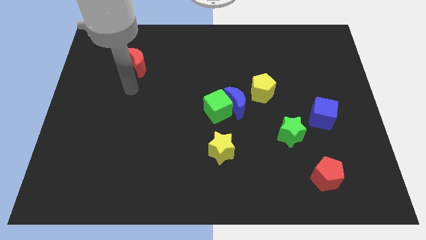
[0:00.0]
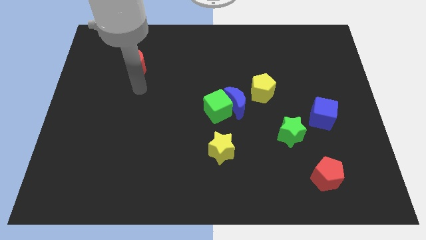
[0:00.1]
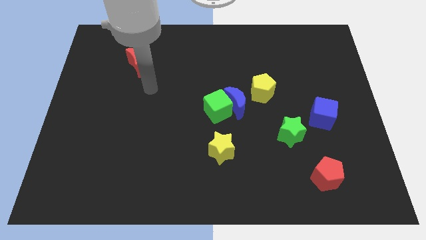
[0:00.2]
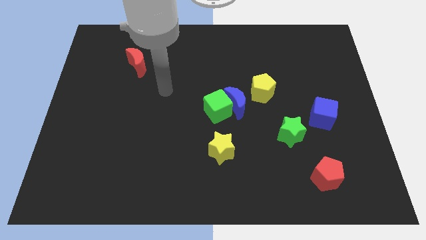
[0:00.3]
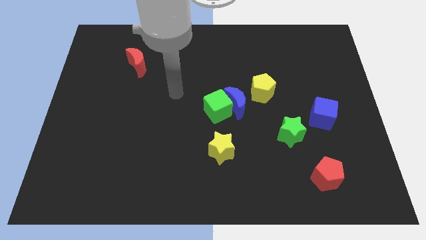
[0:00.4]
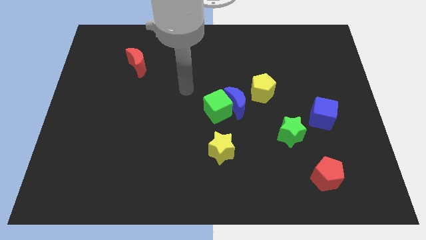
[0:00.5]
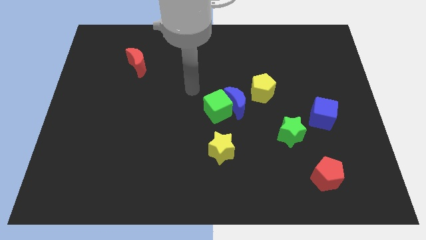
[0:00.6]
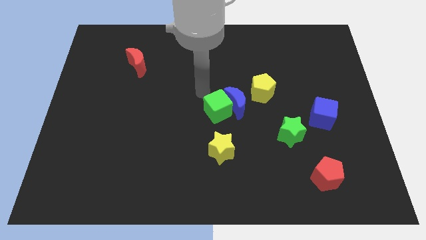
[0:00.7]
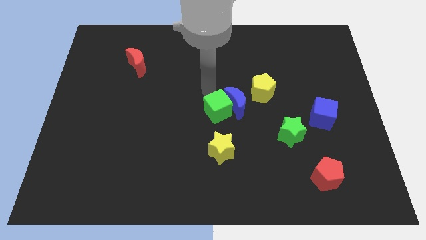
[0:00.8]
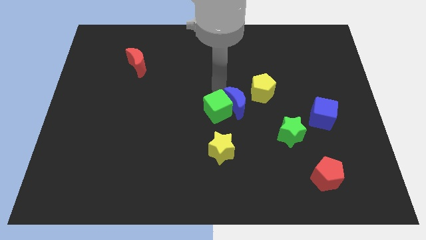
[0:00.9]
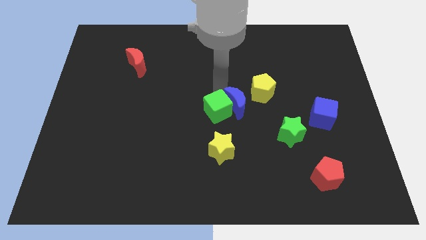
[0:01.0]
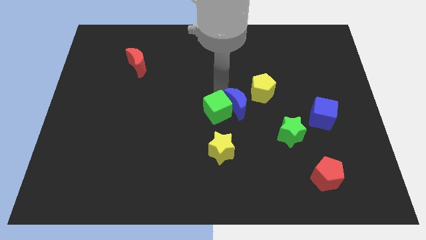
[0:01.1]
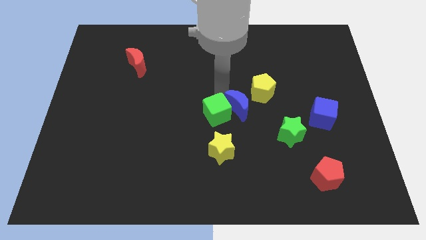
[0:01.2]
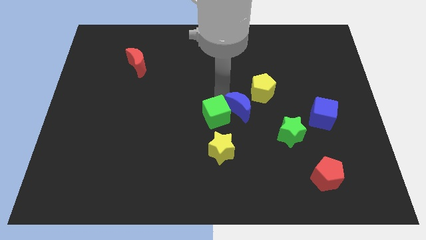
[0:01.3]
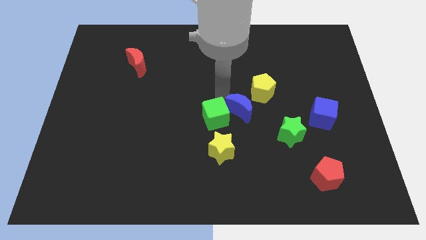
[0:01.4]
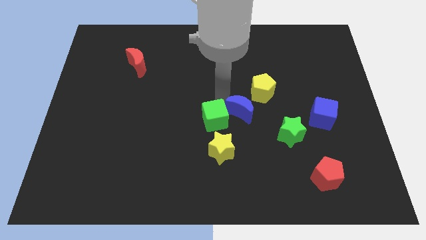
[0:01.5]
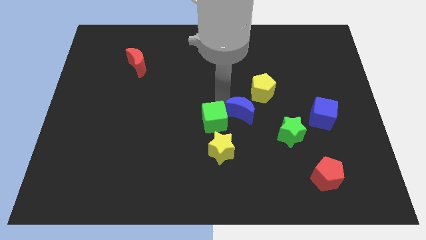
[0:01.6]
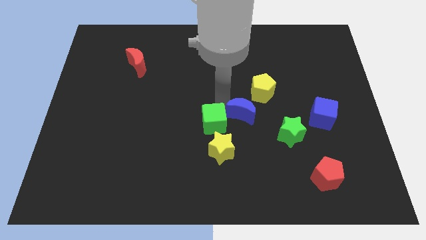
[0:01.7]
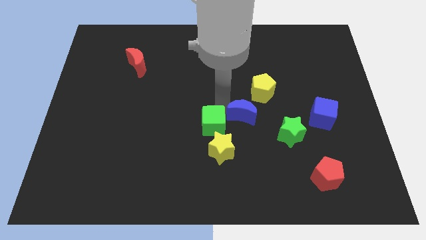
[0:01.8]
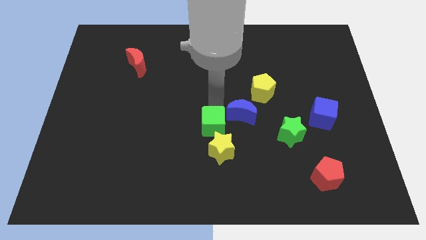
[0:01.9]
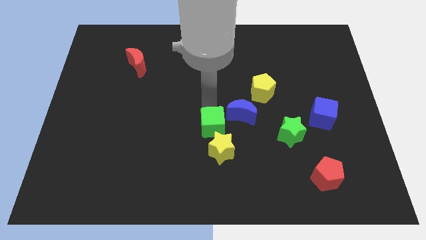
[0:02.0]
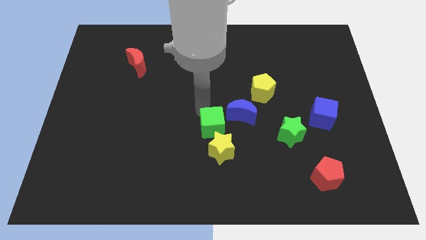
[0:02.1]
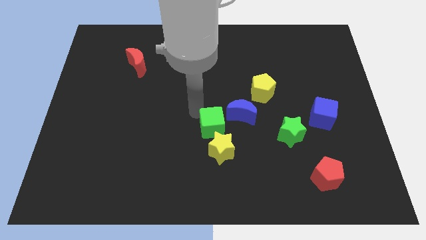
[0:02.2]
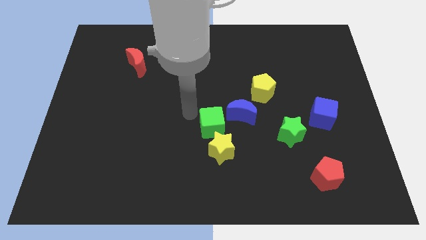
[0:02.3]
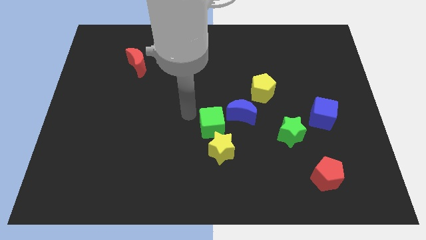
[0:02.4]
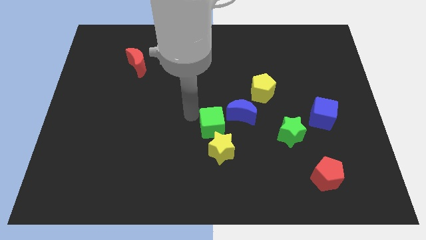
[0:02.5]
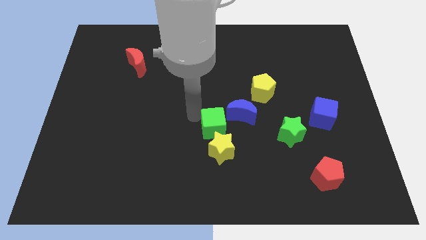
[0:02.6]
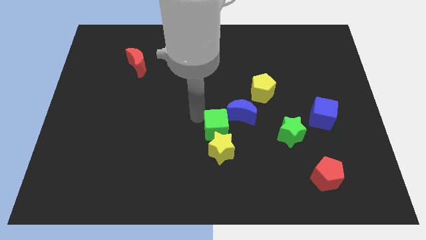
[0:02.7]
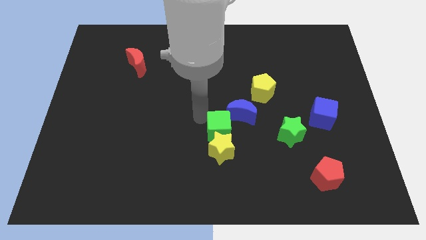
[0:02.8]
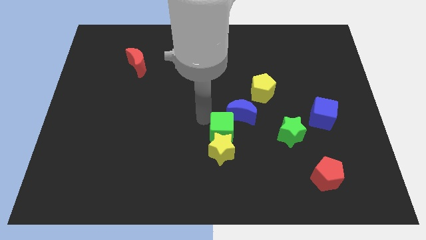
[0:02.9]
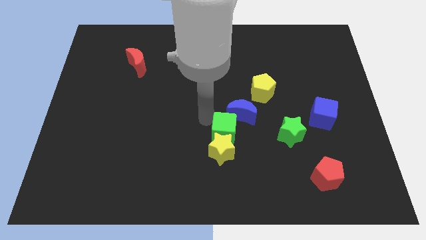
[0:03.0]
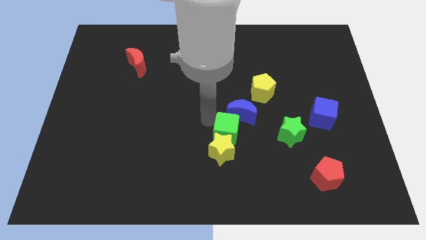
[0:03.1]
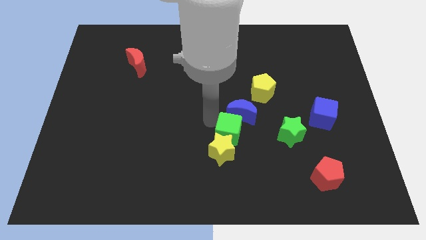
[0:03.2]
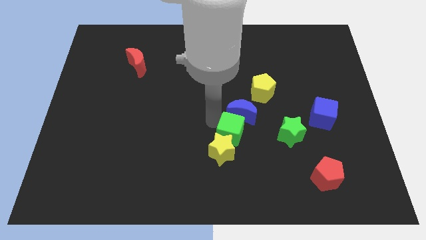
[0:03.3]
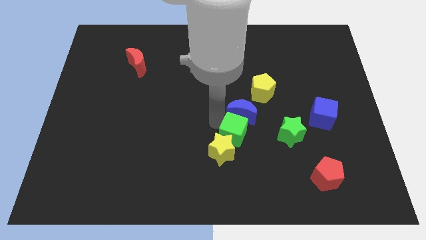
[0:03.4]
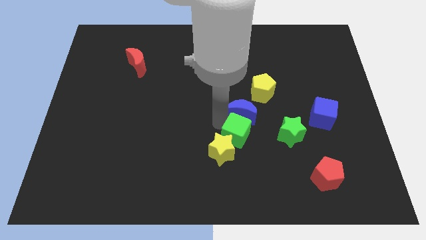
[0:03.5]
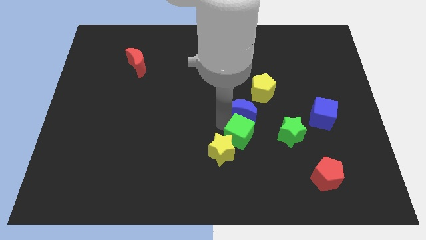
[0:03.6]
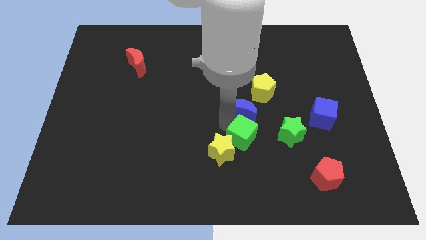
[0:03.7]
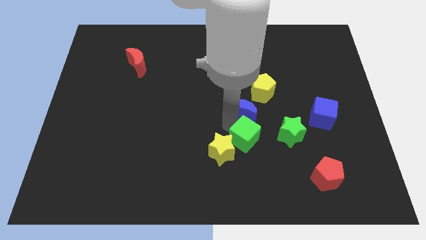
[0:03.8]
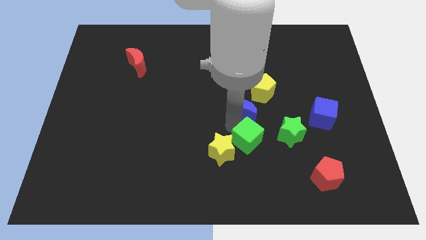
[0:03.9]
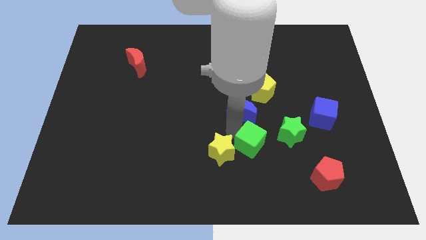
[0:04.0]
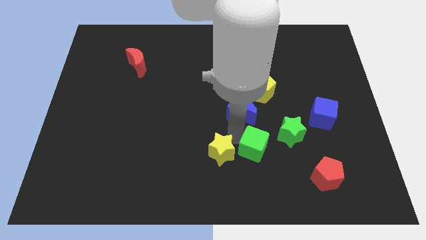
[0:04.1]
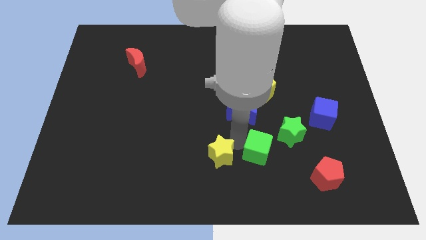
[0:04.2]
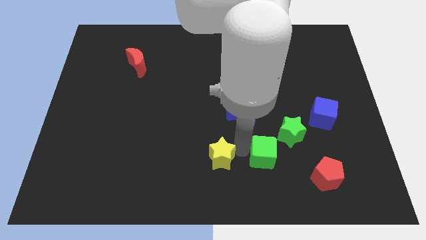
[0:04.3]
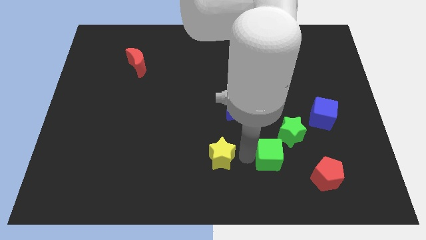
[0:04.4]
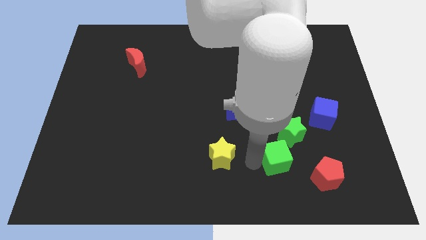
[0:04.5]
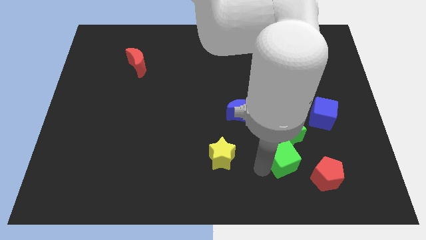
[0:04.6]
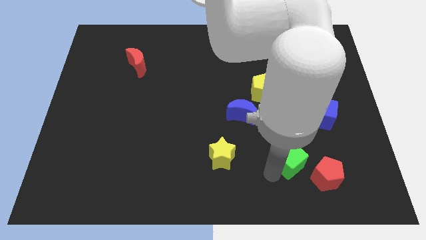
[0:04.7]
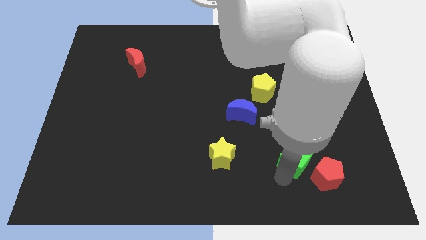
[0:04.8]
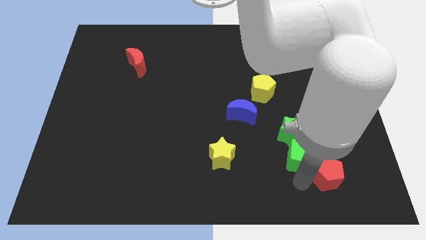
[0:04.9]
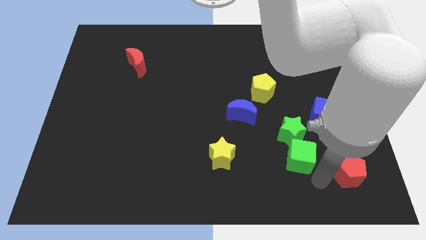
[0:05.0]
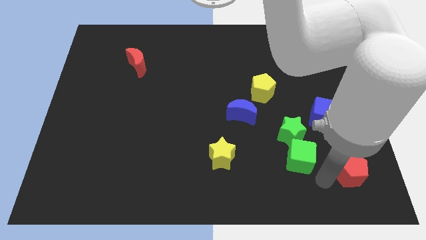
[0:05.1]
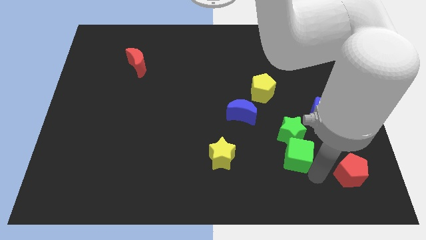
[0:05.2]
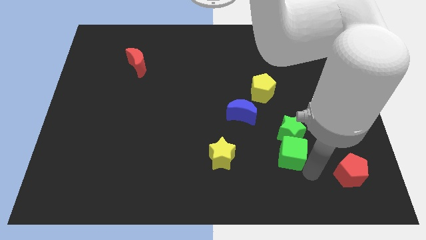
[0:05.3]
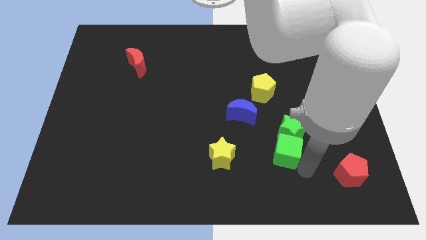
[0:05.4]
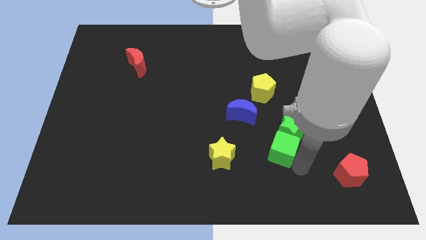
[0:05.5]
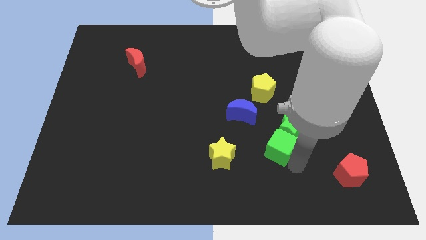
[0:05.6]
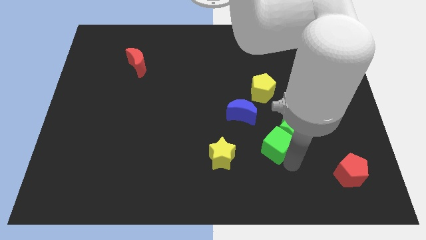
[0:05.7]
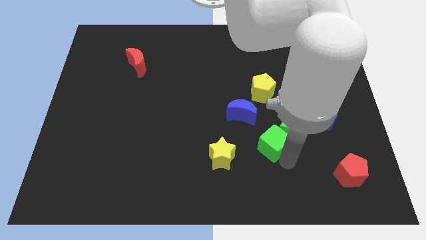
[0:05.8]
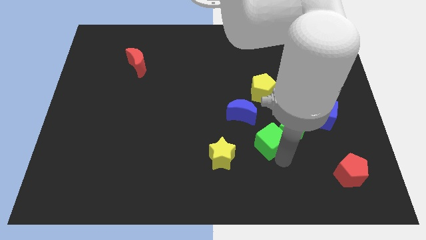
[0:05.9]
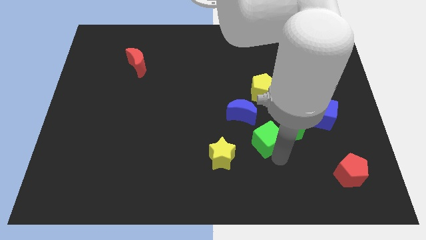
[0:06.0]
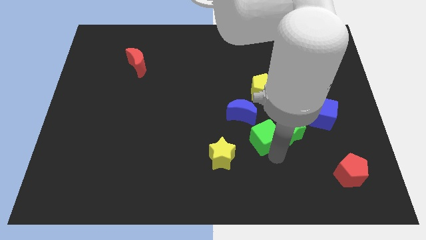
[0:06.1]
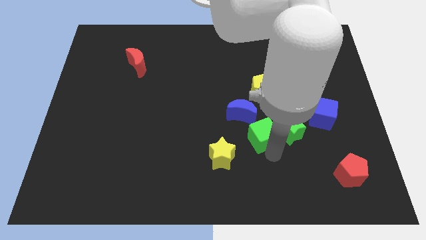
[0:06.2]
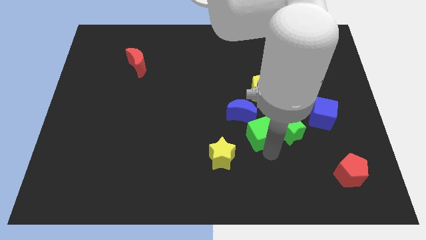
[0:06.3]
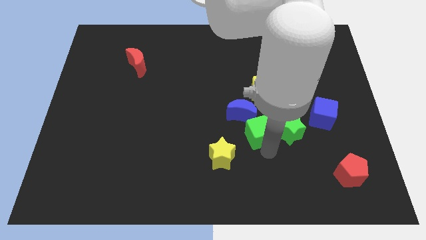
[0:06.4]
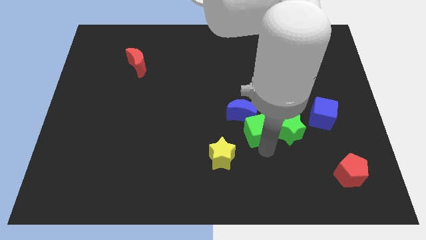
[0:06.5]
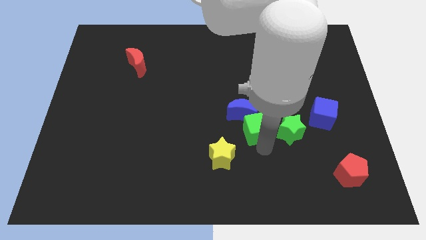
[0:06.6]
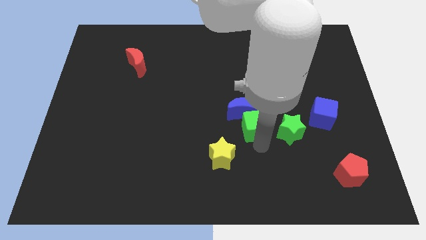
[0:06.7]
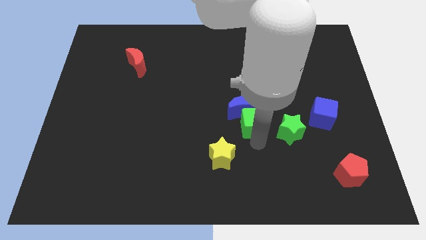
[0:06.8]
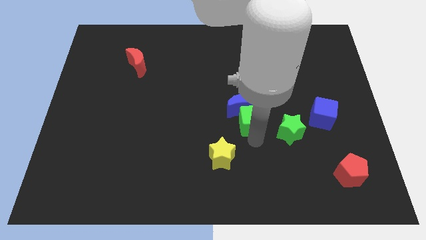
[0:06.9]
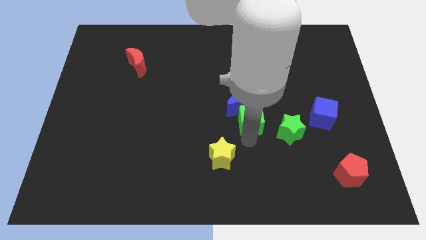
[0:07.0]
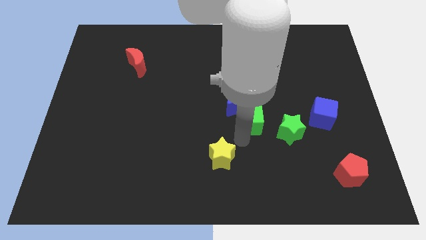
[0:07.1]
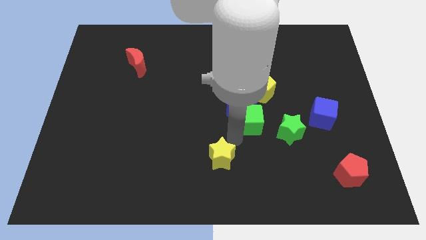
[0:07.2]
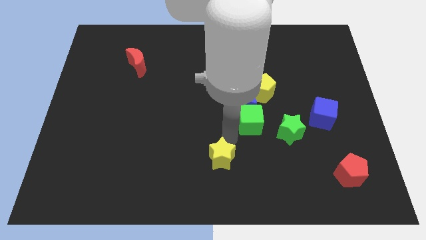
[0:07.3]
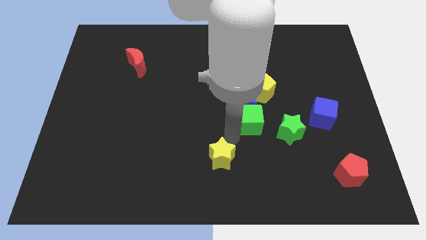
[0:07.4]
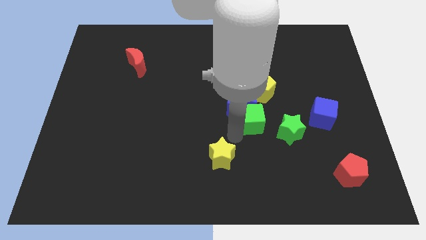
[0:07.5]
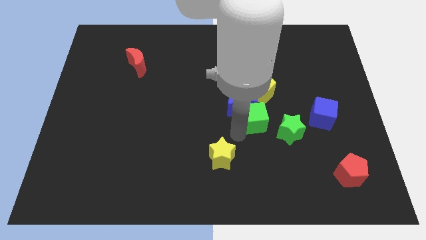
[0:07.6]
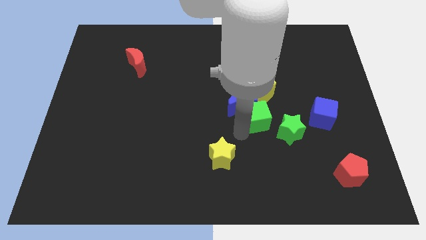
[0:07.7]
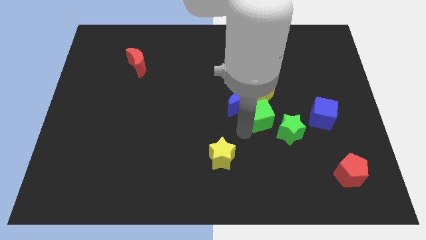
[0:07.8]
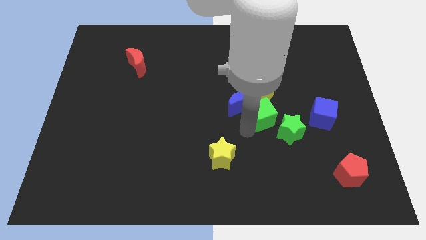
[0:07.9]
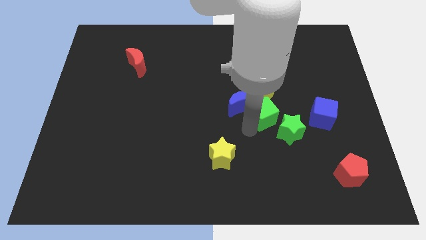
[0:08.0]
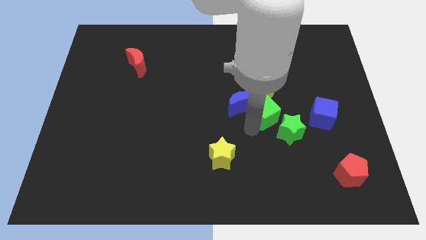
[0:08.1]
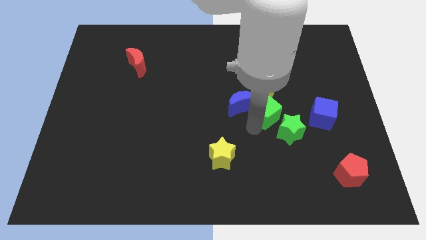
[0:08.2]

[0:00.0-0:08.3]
push the green cube to the top of the green star
